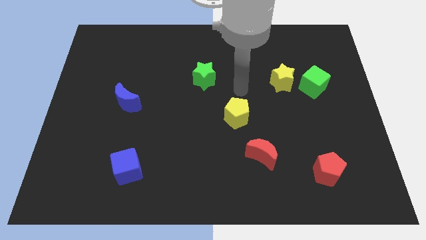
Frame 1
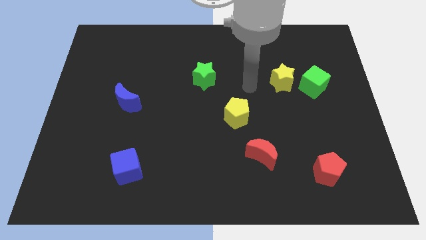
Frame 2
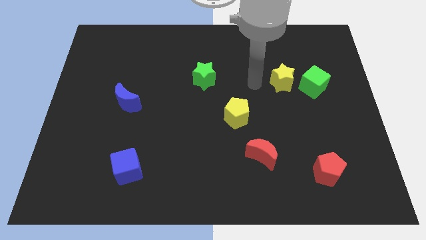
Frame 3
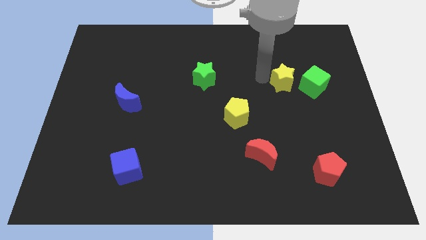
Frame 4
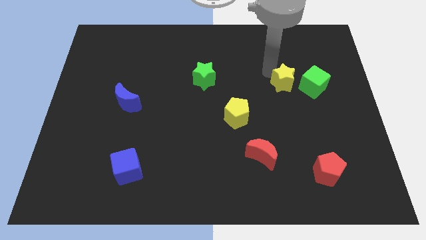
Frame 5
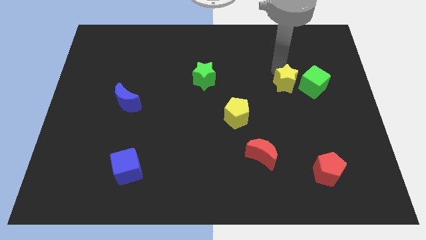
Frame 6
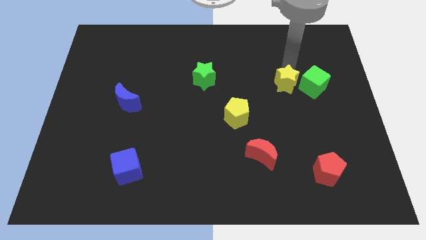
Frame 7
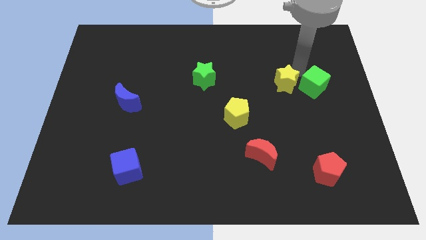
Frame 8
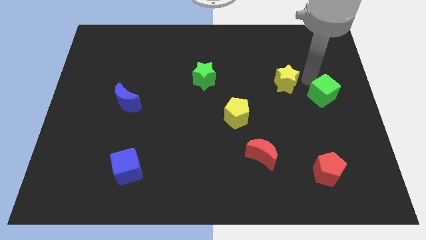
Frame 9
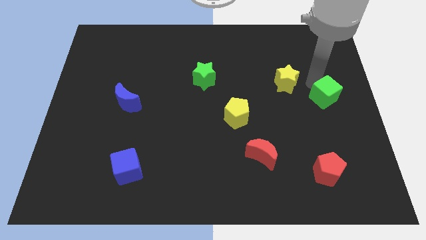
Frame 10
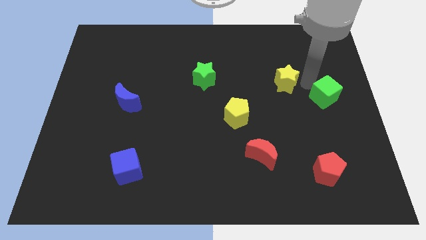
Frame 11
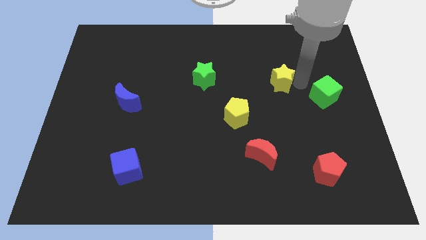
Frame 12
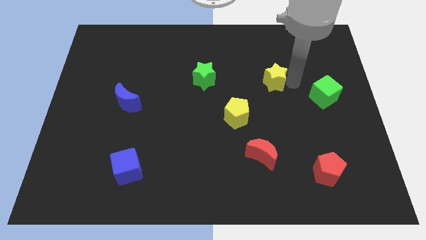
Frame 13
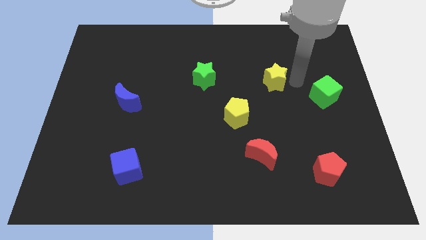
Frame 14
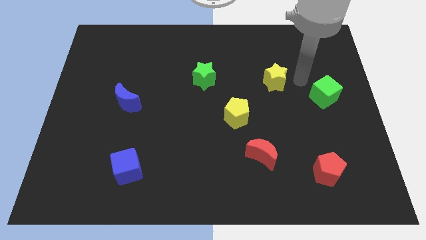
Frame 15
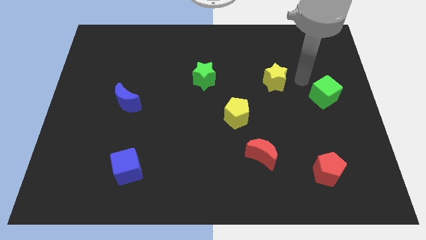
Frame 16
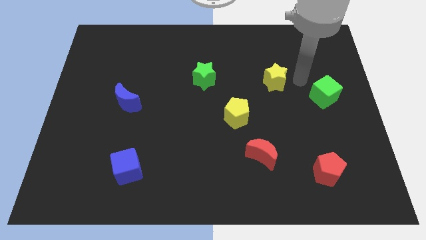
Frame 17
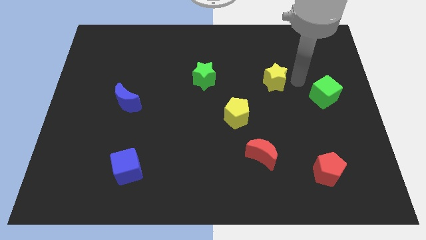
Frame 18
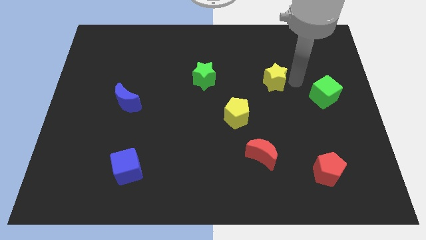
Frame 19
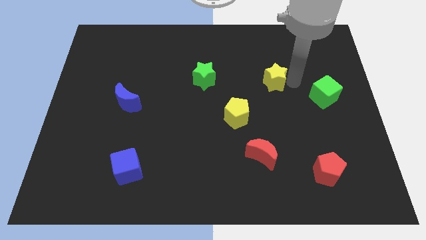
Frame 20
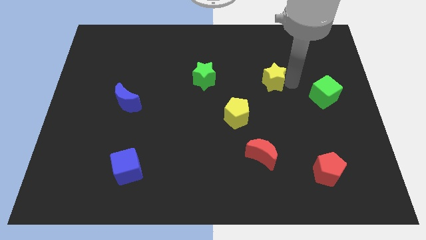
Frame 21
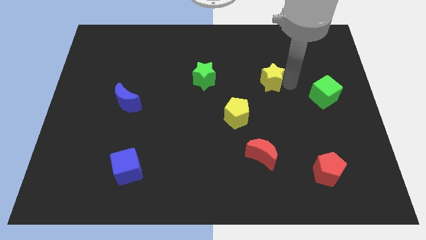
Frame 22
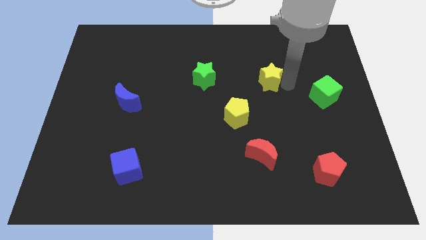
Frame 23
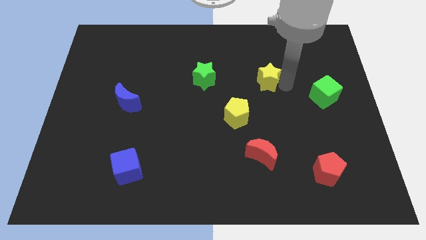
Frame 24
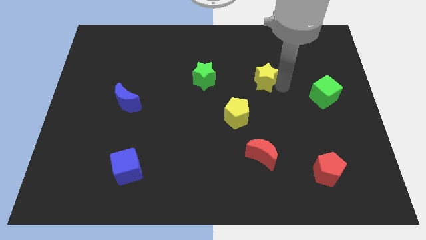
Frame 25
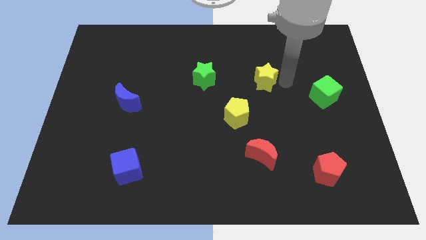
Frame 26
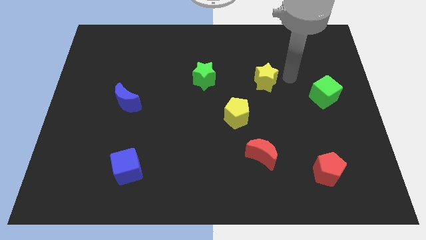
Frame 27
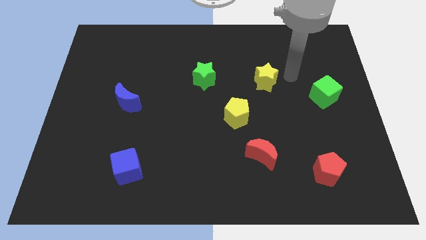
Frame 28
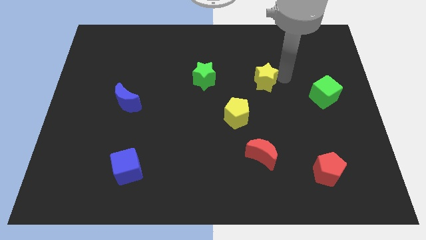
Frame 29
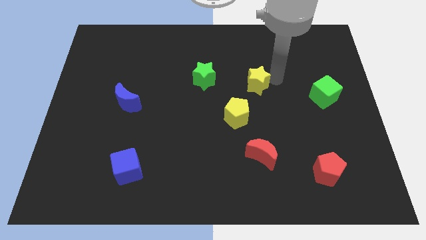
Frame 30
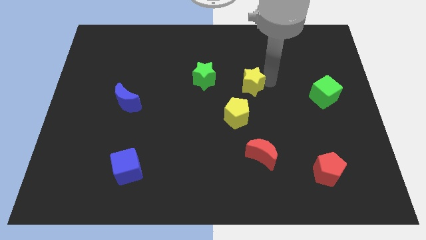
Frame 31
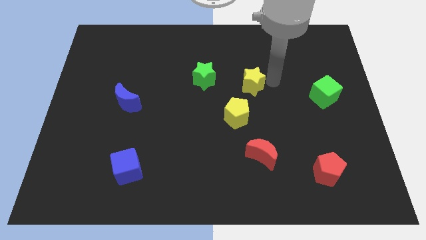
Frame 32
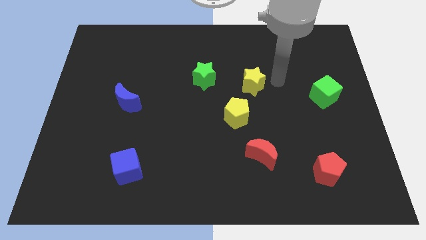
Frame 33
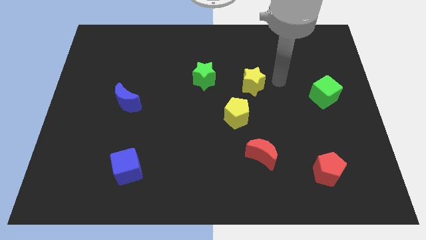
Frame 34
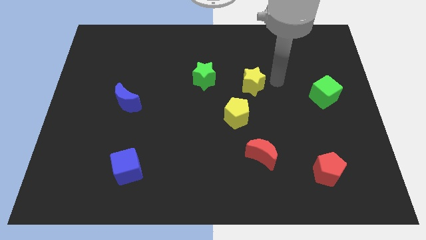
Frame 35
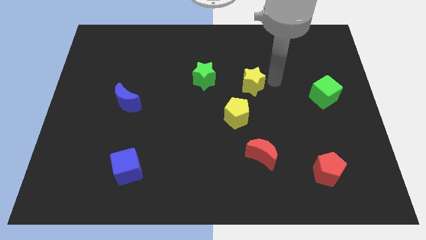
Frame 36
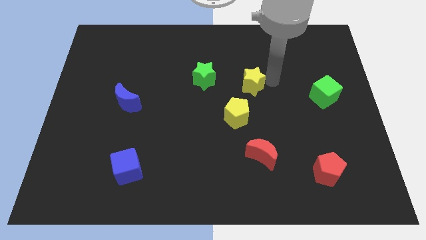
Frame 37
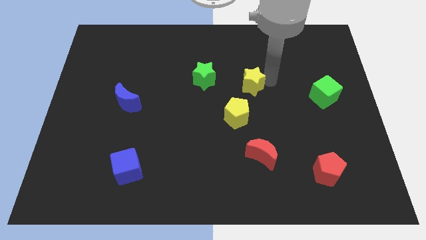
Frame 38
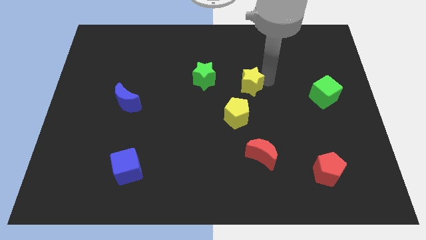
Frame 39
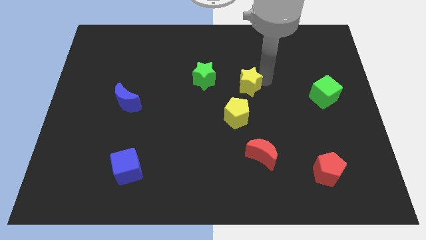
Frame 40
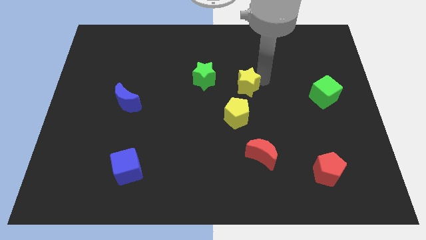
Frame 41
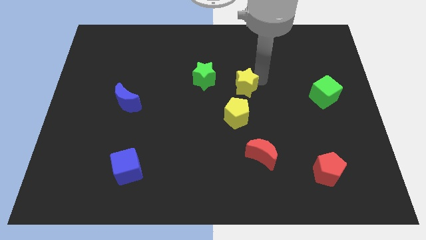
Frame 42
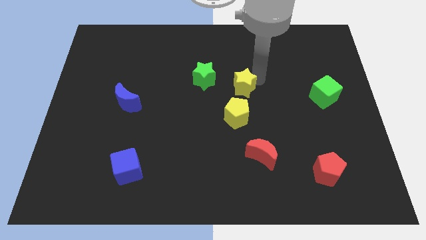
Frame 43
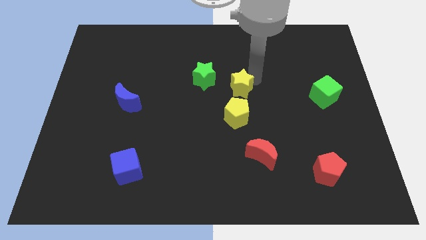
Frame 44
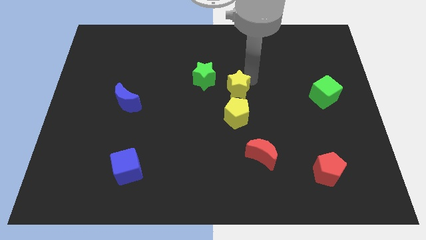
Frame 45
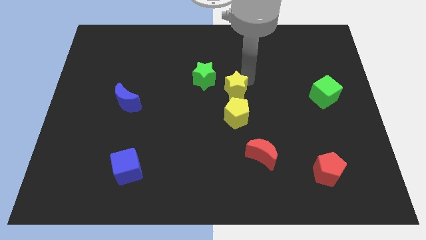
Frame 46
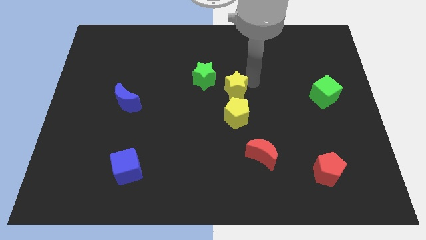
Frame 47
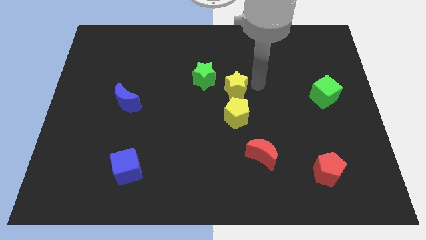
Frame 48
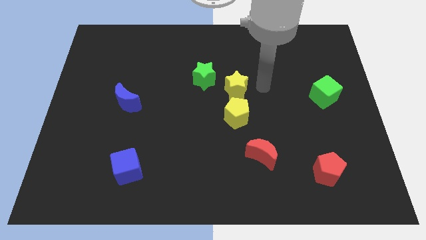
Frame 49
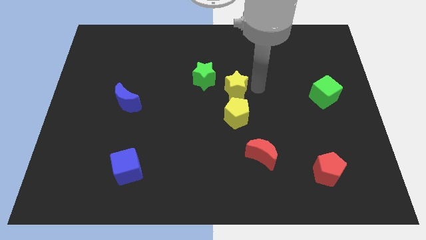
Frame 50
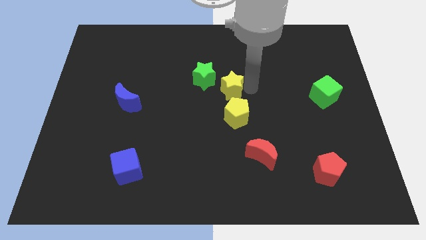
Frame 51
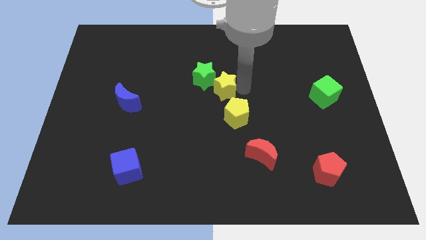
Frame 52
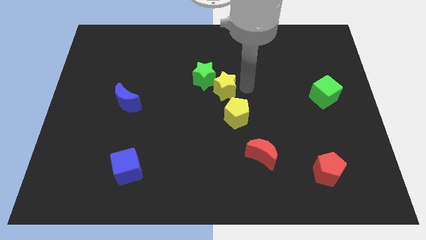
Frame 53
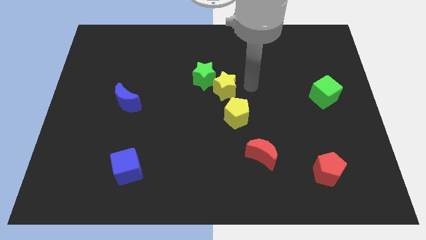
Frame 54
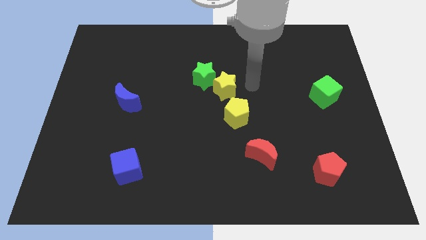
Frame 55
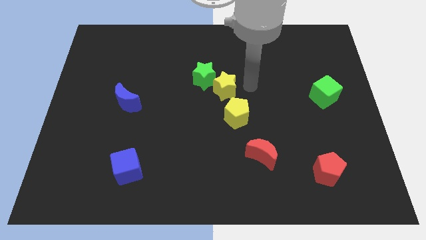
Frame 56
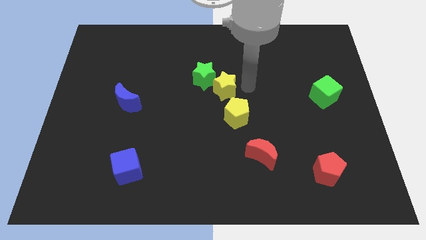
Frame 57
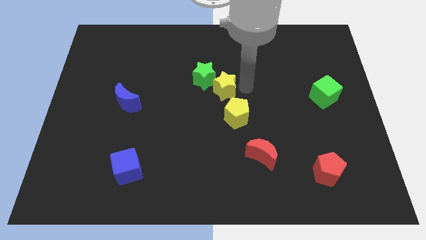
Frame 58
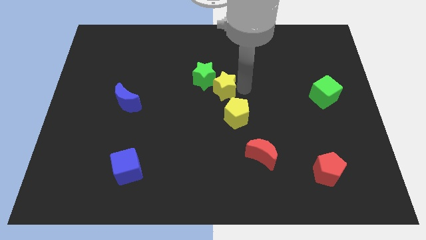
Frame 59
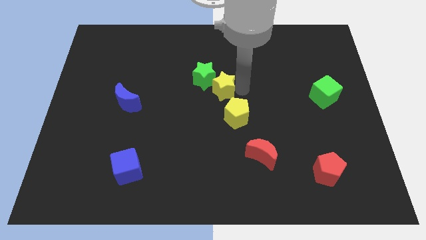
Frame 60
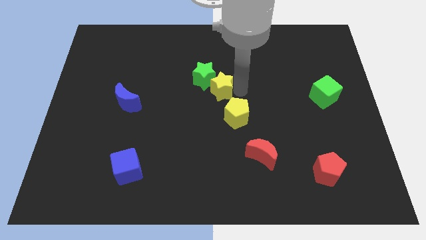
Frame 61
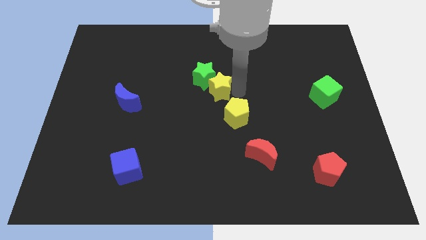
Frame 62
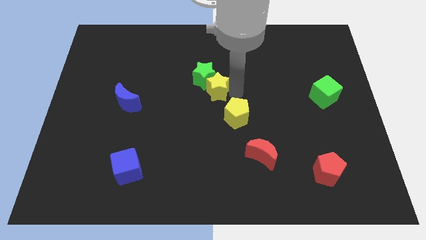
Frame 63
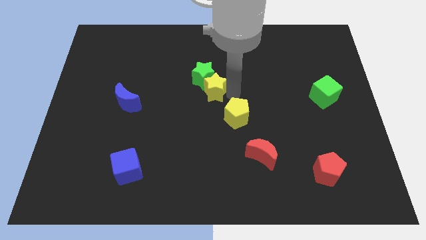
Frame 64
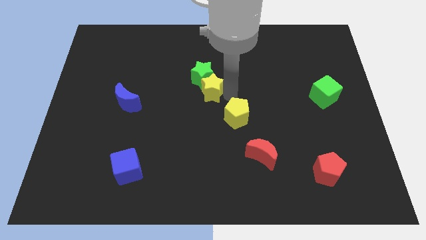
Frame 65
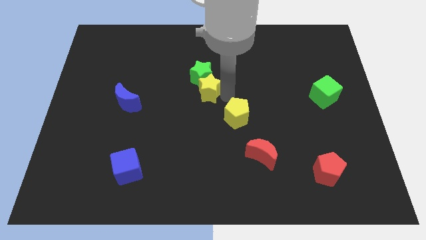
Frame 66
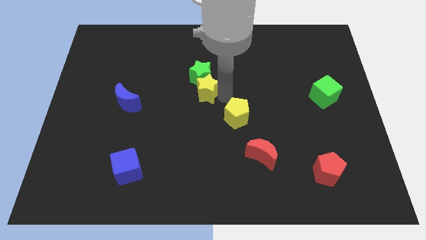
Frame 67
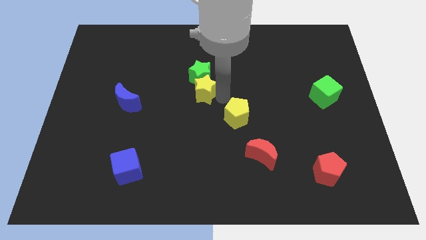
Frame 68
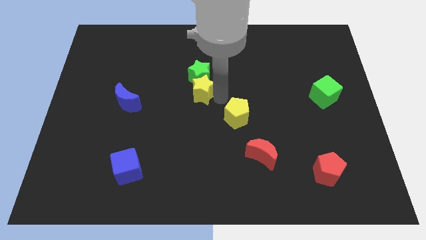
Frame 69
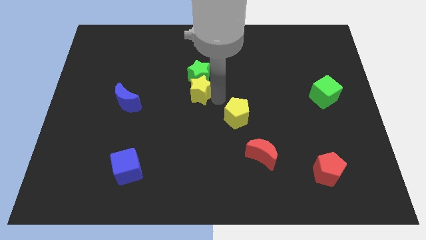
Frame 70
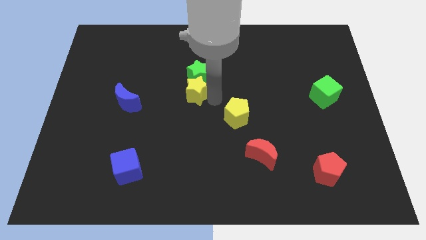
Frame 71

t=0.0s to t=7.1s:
slide the yellow star to the left

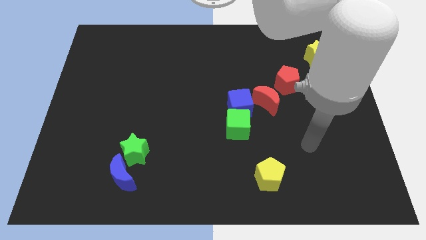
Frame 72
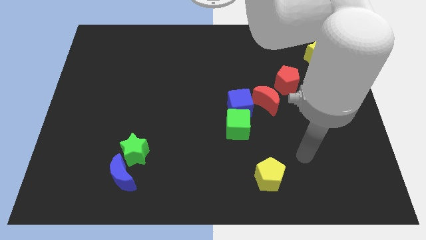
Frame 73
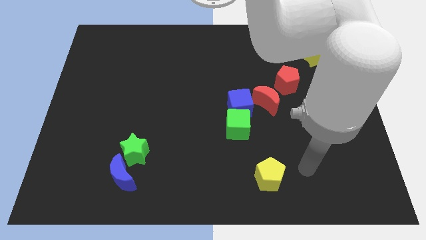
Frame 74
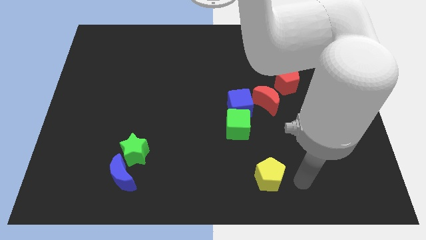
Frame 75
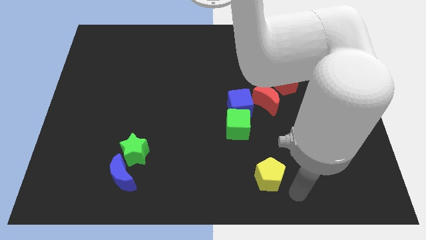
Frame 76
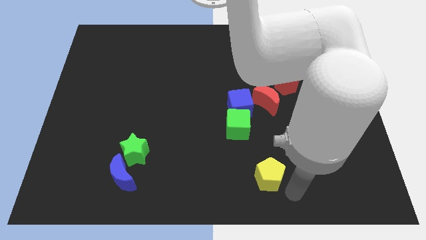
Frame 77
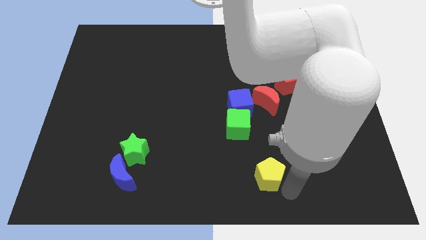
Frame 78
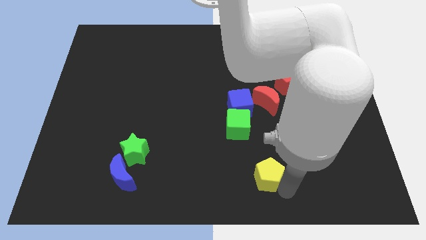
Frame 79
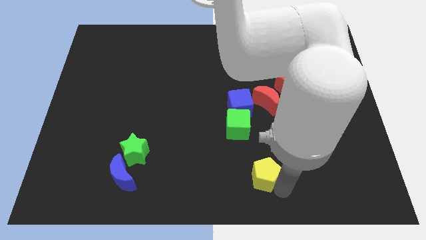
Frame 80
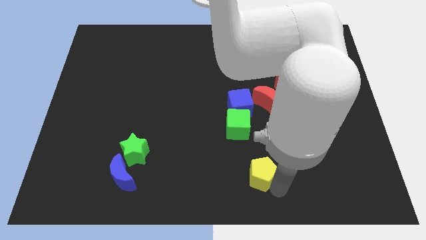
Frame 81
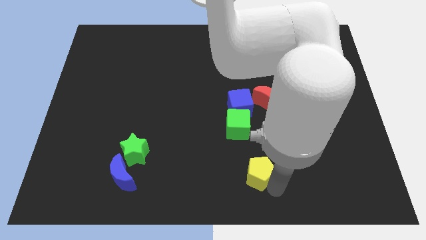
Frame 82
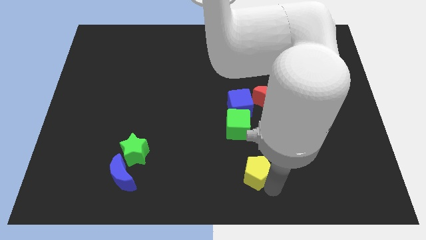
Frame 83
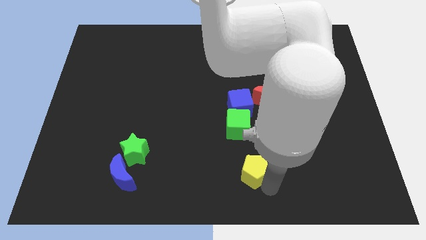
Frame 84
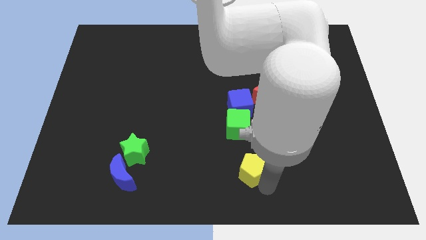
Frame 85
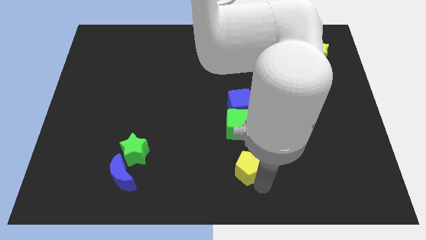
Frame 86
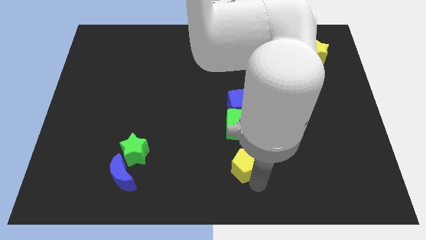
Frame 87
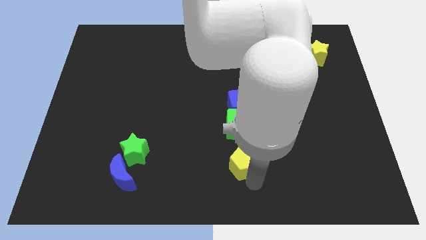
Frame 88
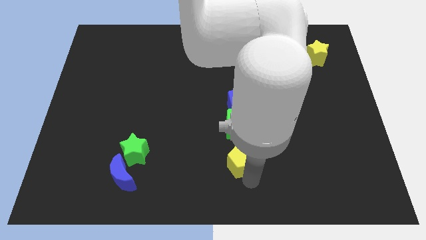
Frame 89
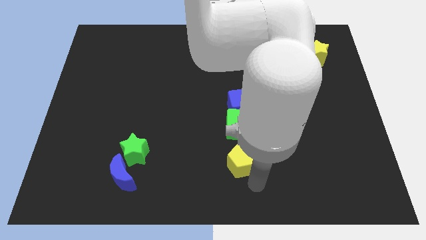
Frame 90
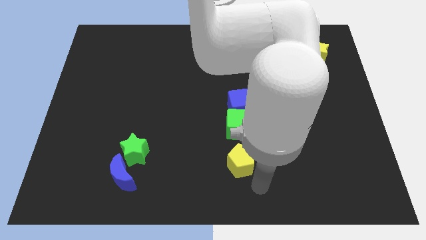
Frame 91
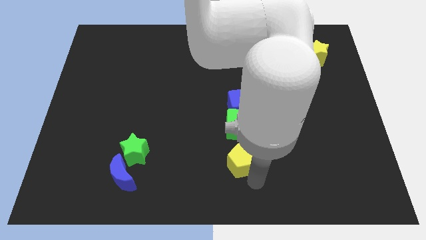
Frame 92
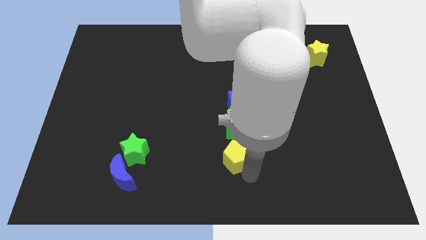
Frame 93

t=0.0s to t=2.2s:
slightly push the yellow pentagon upwards and left
